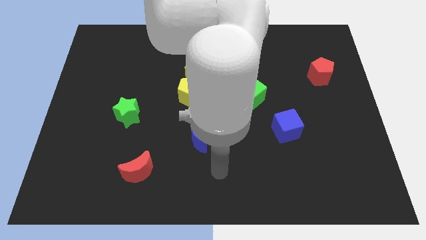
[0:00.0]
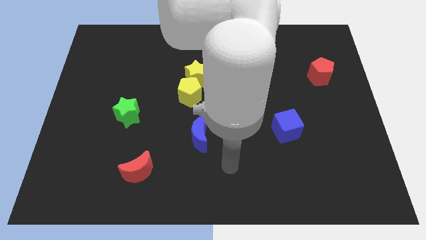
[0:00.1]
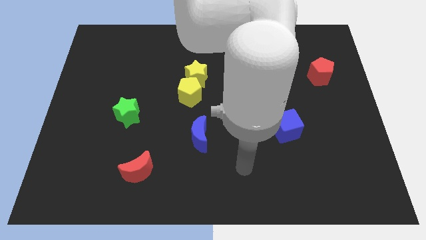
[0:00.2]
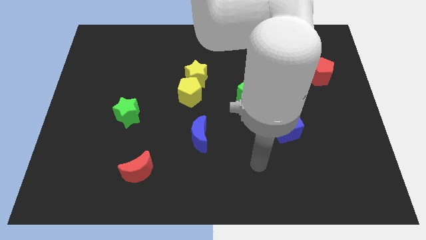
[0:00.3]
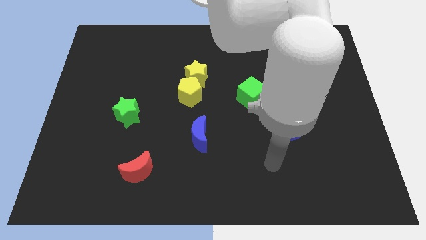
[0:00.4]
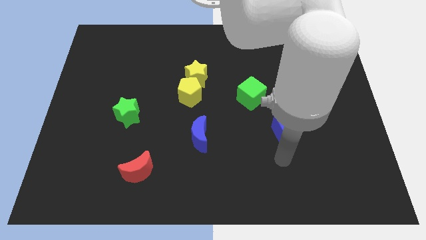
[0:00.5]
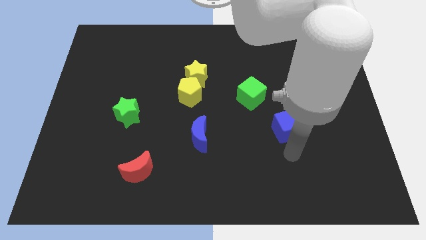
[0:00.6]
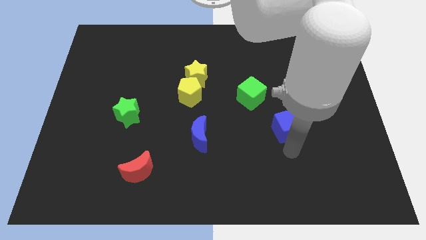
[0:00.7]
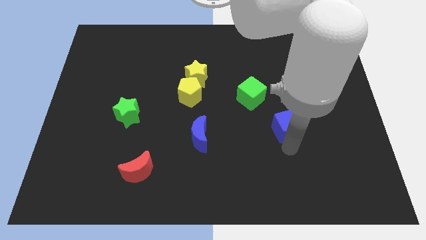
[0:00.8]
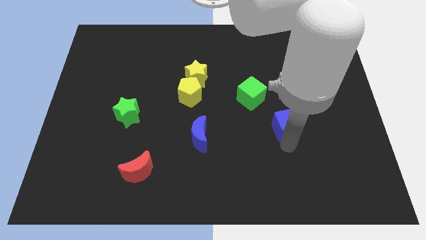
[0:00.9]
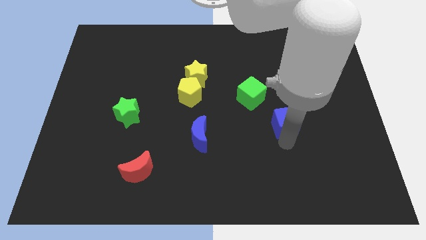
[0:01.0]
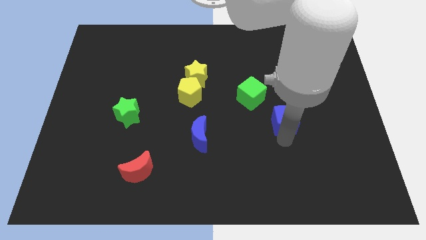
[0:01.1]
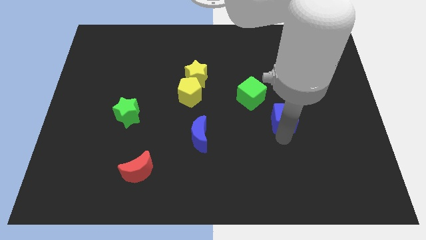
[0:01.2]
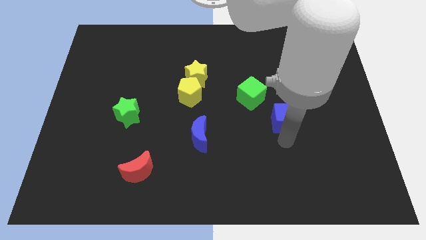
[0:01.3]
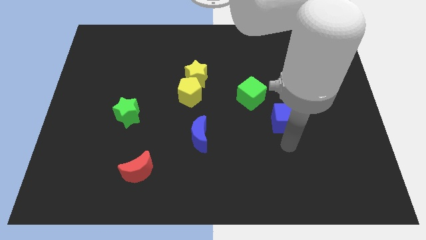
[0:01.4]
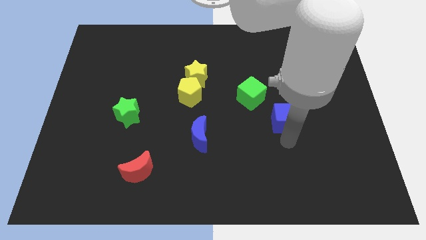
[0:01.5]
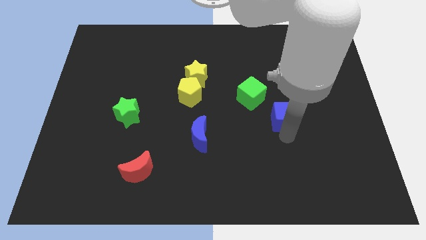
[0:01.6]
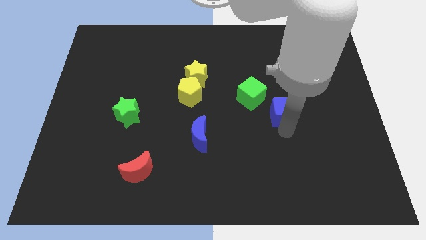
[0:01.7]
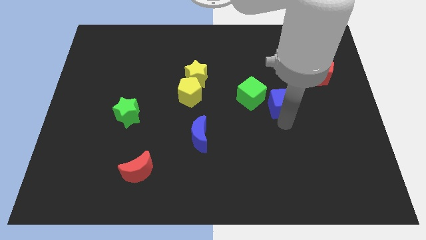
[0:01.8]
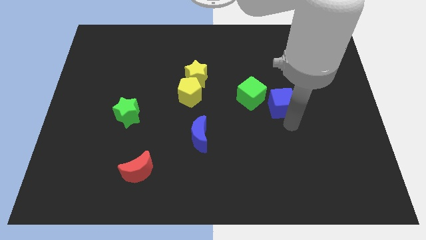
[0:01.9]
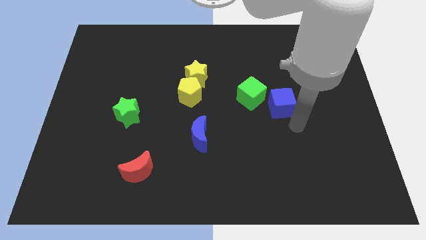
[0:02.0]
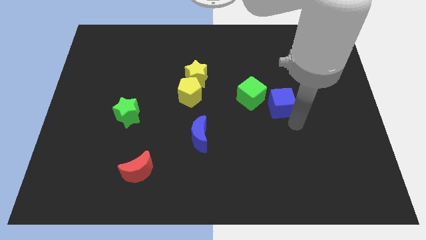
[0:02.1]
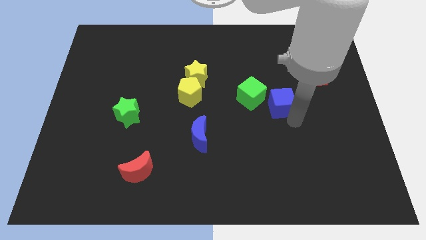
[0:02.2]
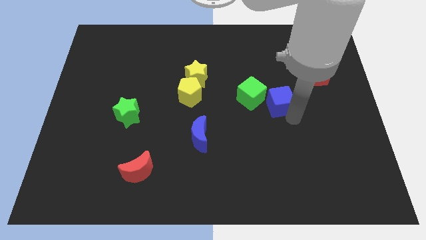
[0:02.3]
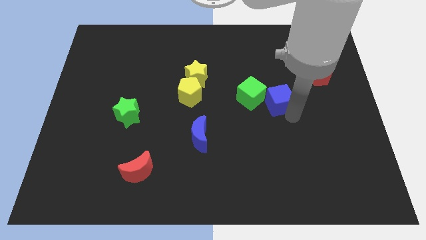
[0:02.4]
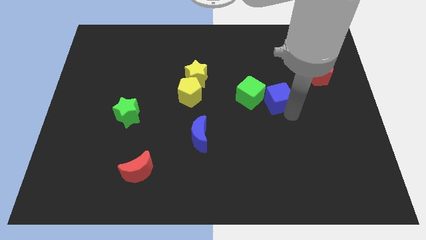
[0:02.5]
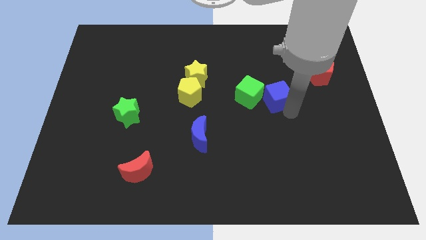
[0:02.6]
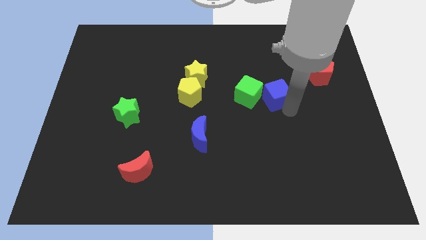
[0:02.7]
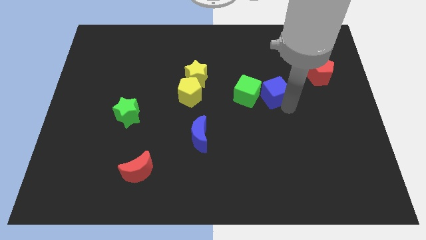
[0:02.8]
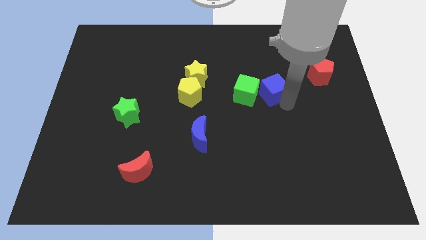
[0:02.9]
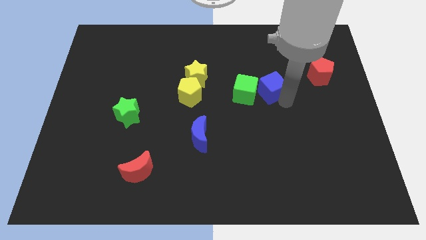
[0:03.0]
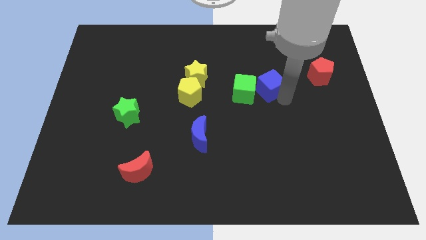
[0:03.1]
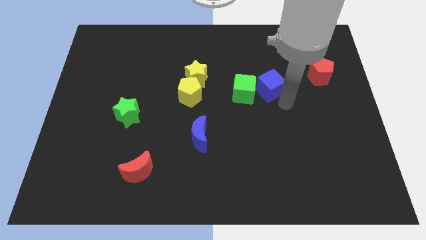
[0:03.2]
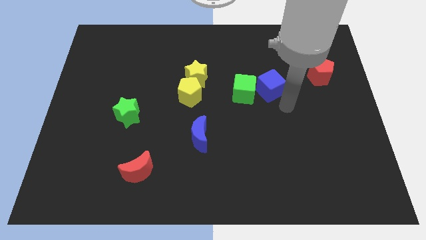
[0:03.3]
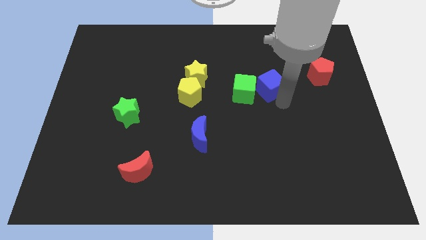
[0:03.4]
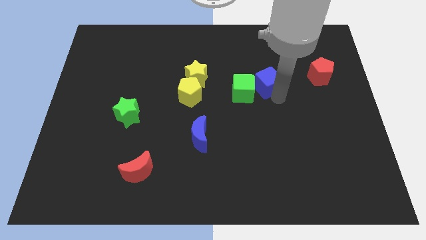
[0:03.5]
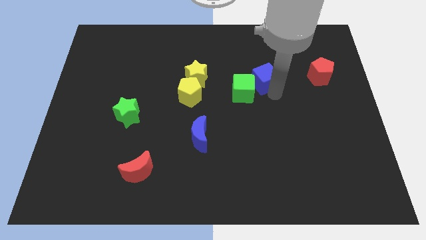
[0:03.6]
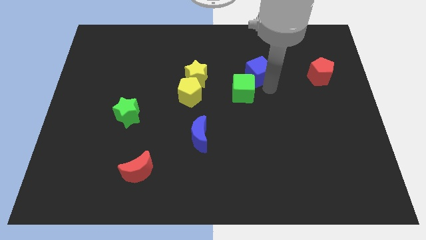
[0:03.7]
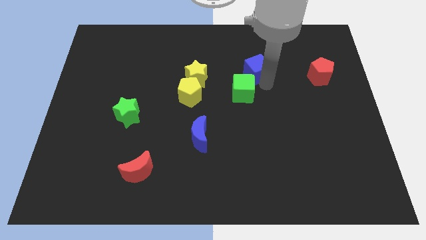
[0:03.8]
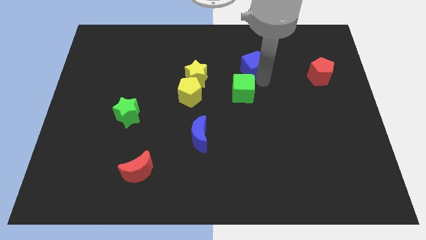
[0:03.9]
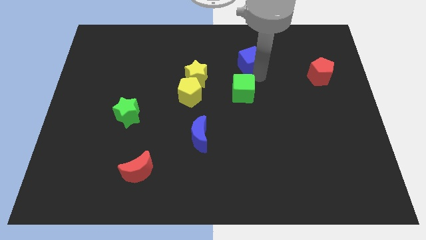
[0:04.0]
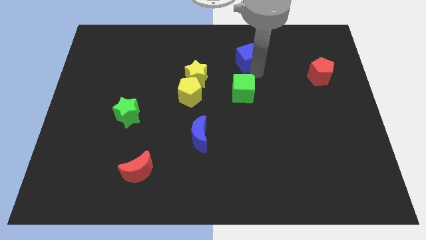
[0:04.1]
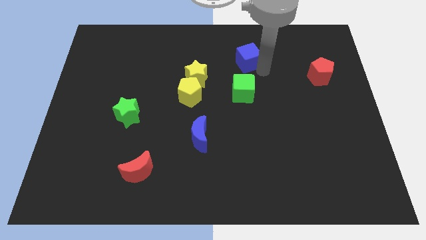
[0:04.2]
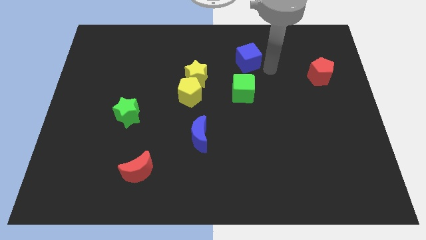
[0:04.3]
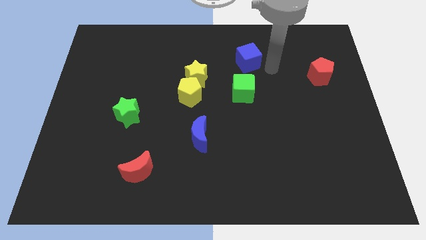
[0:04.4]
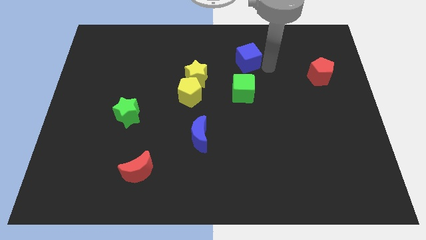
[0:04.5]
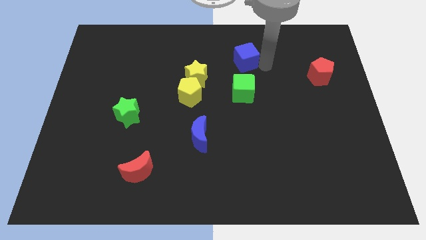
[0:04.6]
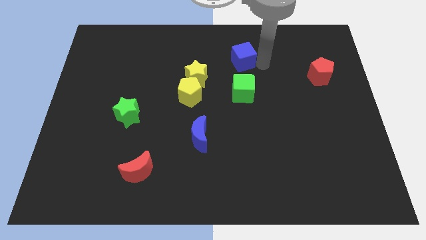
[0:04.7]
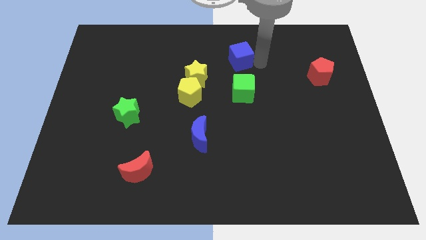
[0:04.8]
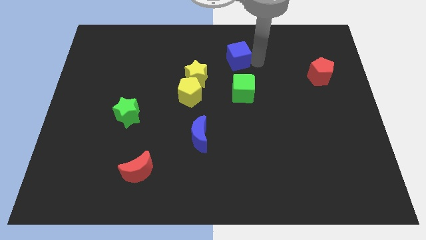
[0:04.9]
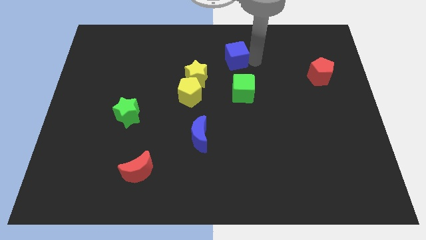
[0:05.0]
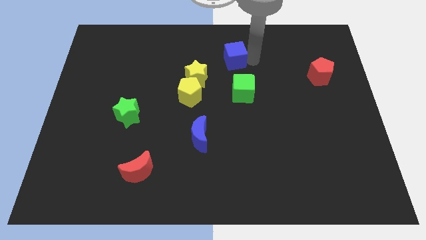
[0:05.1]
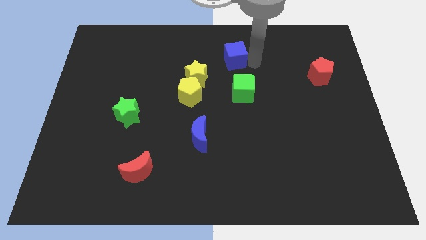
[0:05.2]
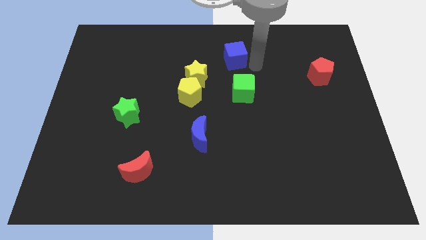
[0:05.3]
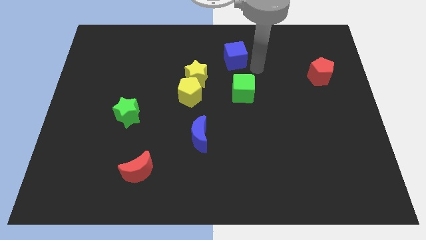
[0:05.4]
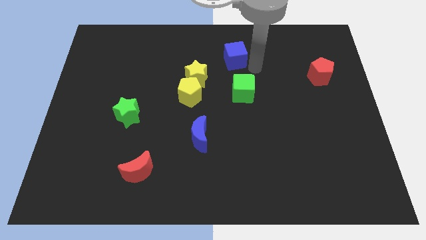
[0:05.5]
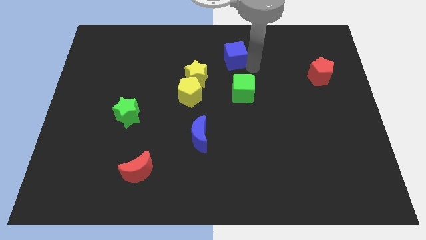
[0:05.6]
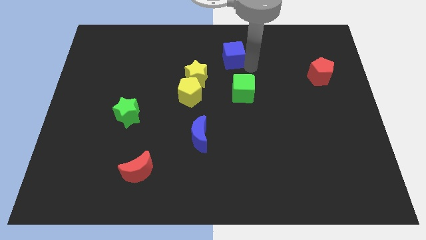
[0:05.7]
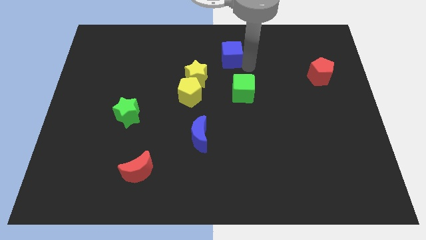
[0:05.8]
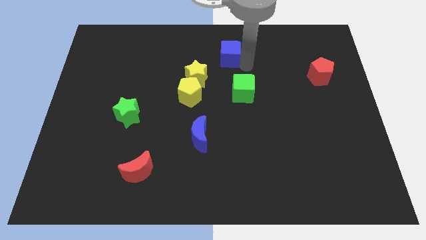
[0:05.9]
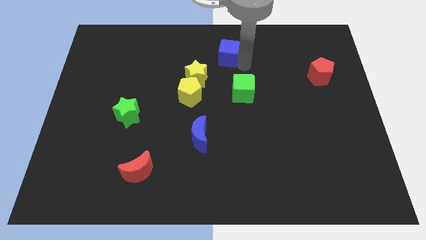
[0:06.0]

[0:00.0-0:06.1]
move the blue cube to the top side
